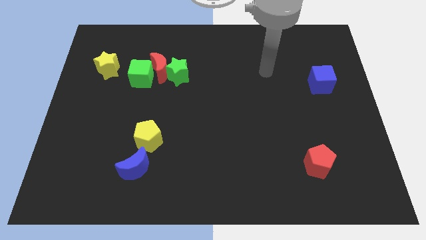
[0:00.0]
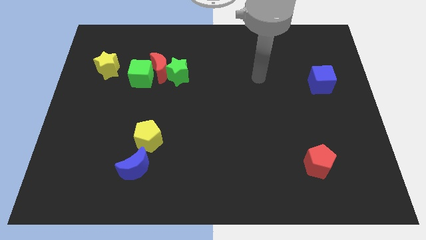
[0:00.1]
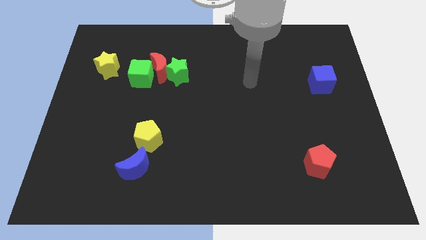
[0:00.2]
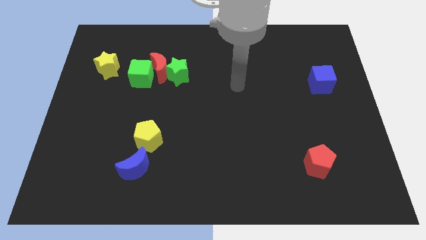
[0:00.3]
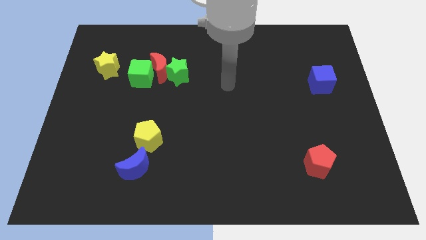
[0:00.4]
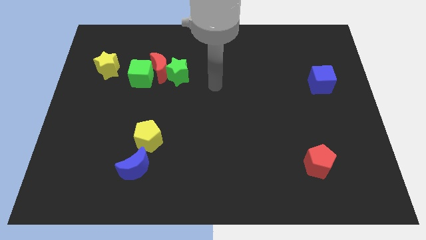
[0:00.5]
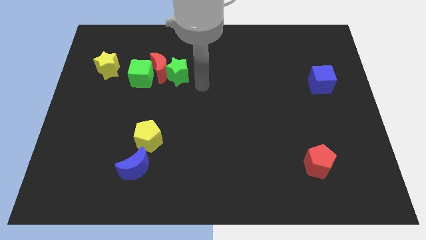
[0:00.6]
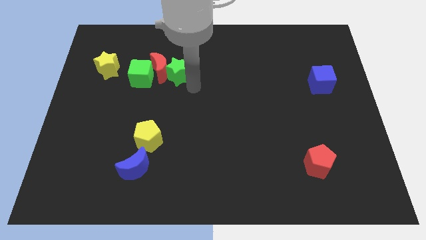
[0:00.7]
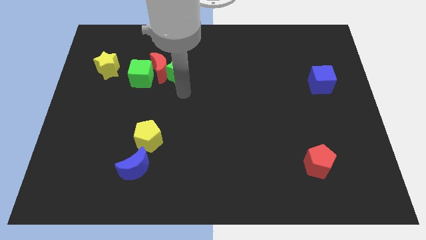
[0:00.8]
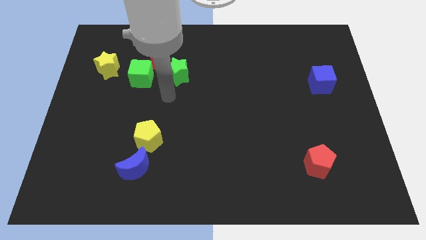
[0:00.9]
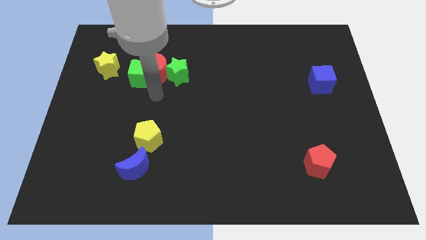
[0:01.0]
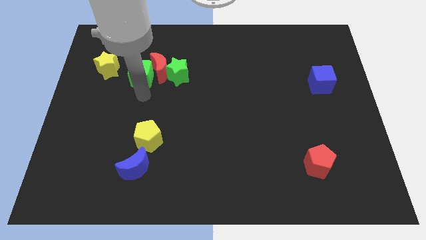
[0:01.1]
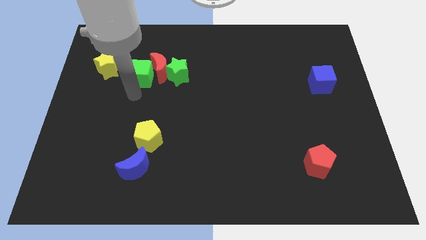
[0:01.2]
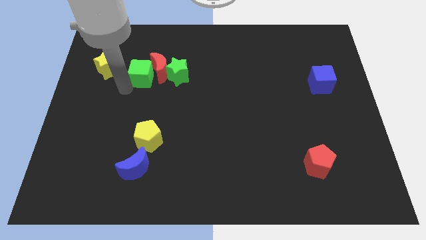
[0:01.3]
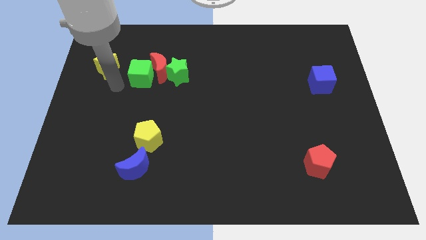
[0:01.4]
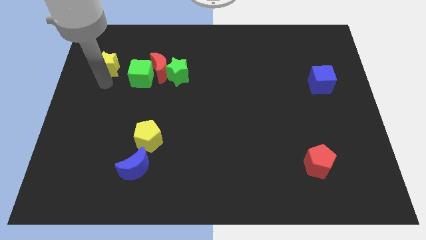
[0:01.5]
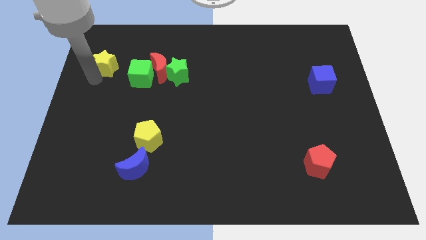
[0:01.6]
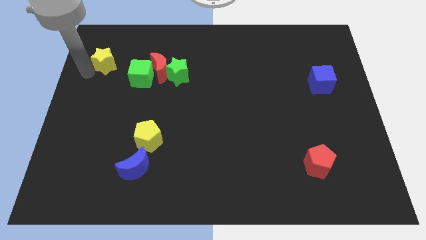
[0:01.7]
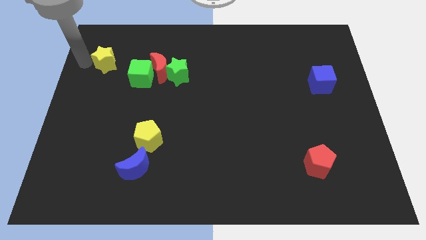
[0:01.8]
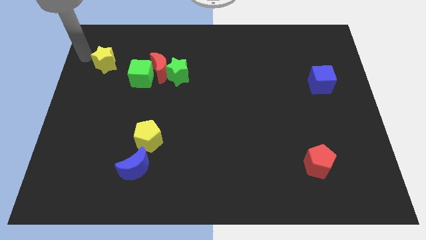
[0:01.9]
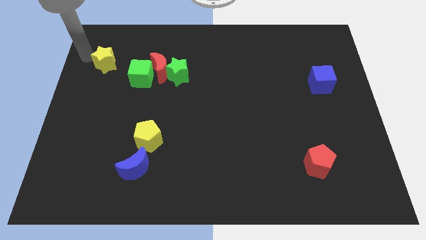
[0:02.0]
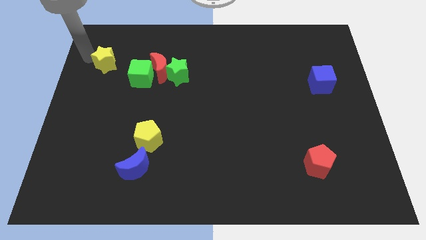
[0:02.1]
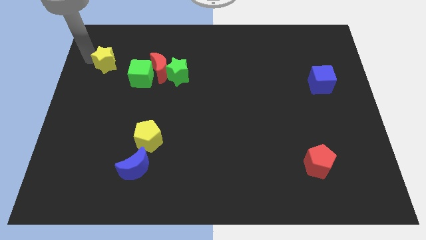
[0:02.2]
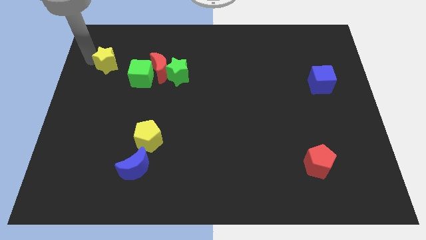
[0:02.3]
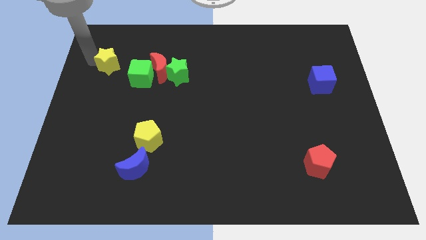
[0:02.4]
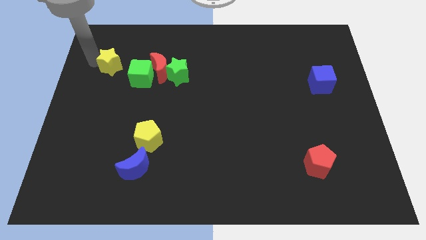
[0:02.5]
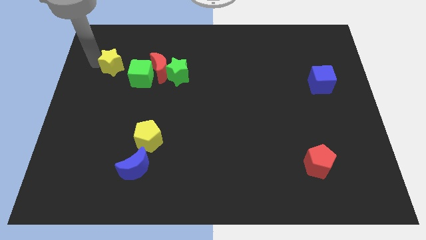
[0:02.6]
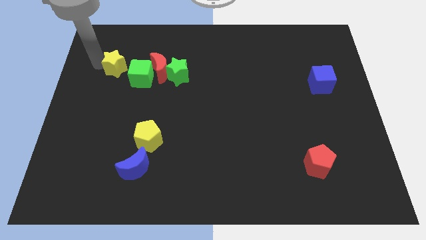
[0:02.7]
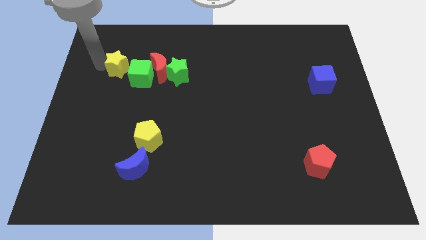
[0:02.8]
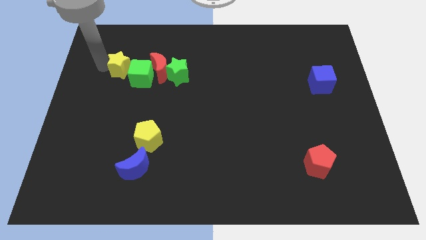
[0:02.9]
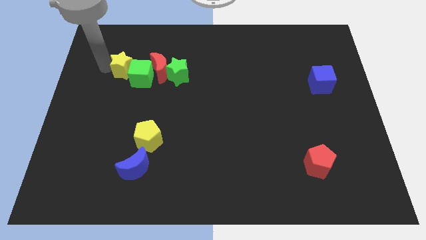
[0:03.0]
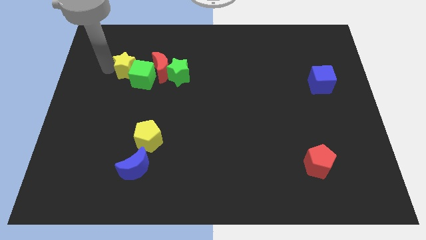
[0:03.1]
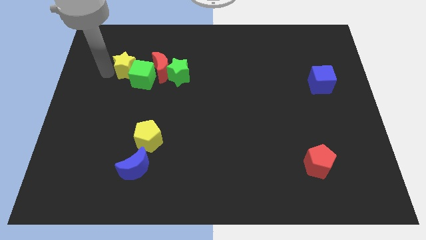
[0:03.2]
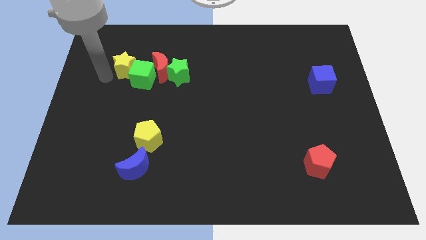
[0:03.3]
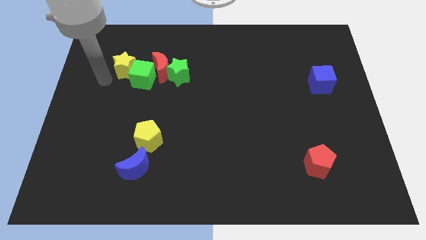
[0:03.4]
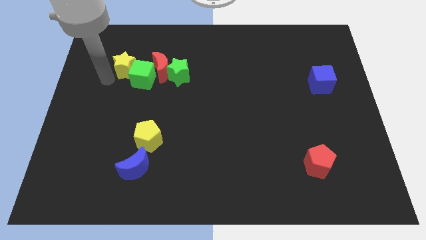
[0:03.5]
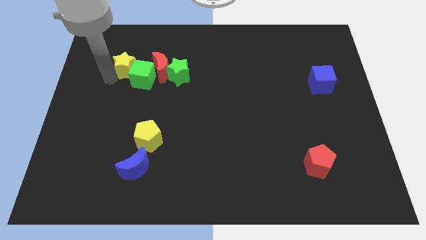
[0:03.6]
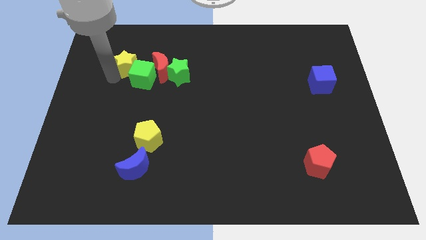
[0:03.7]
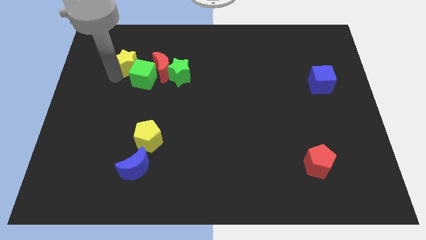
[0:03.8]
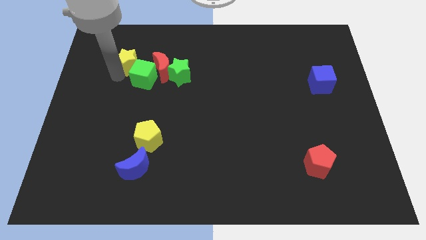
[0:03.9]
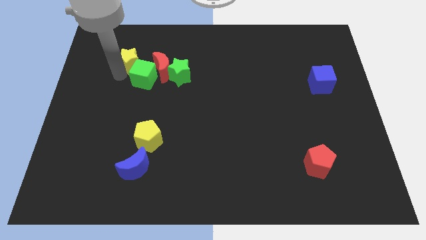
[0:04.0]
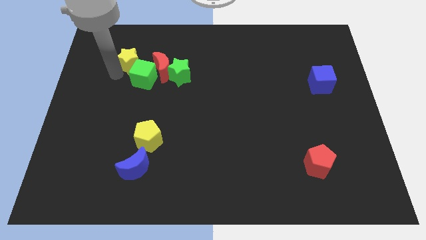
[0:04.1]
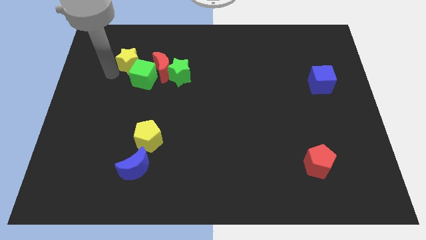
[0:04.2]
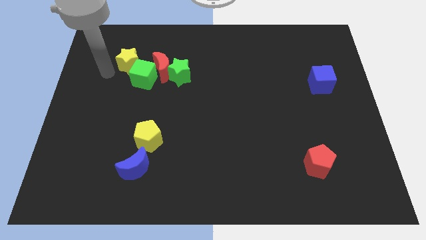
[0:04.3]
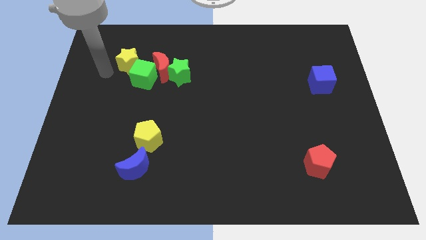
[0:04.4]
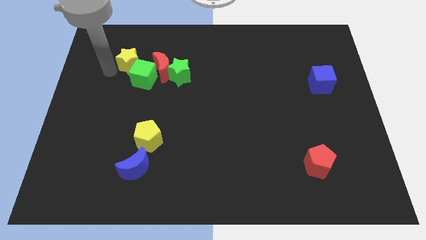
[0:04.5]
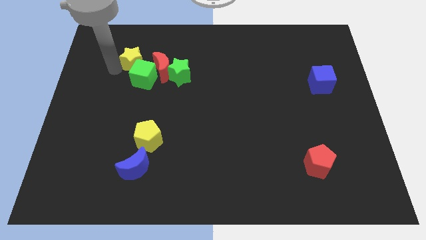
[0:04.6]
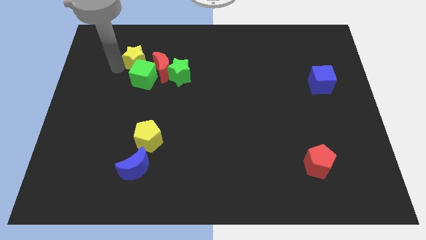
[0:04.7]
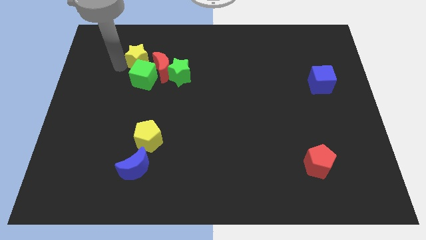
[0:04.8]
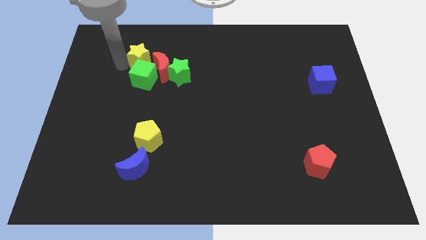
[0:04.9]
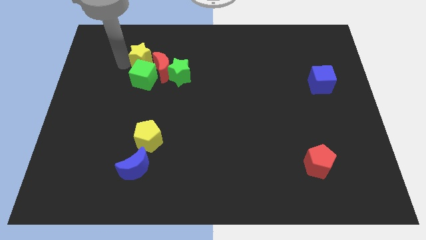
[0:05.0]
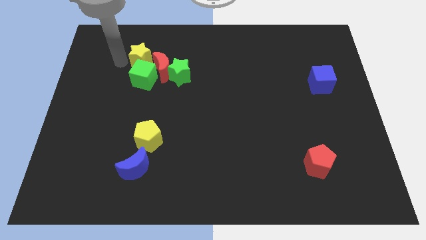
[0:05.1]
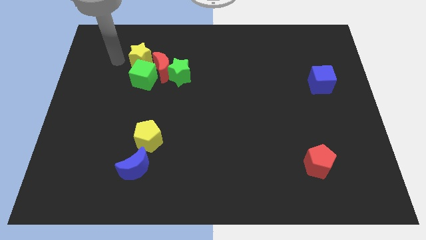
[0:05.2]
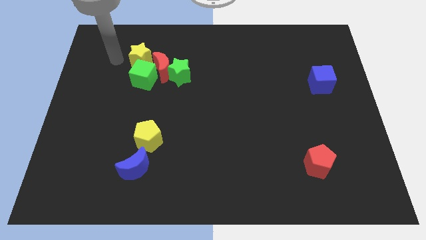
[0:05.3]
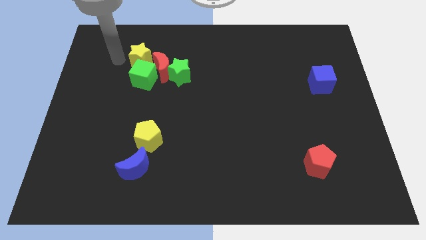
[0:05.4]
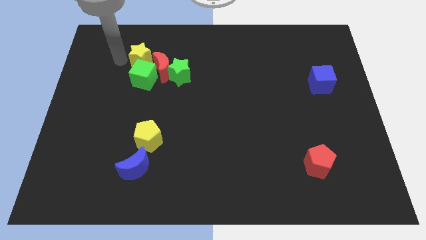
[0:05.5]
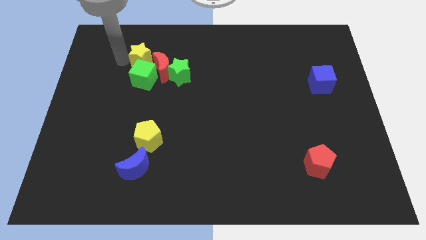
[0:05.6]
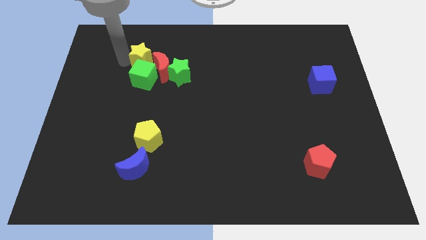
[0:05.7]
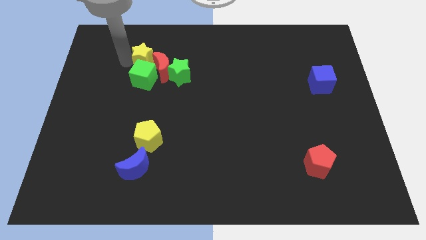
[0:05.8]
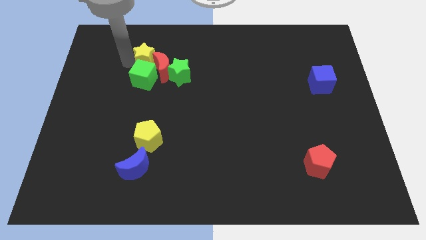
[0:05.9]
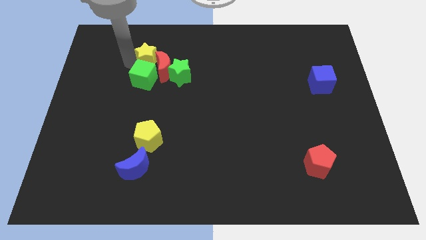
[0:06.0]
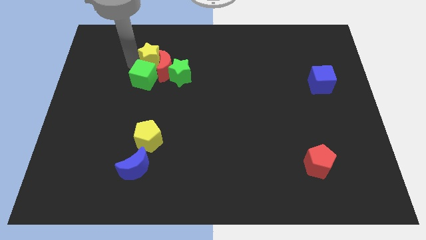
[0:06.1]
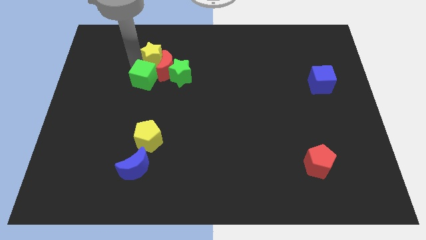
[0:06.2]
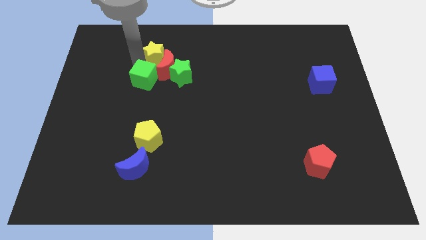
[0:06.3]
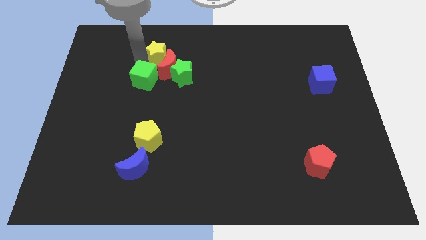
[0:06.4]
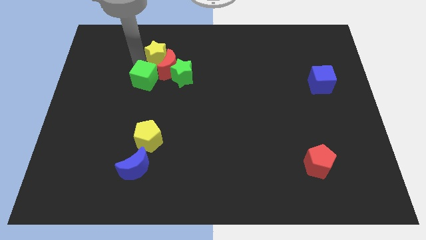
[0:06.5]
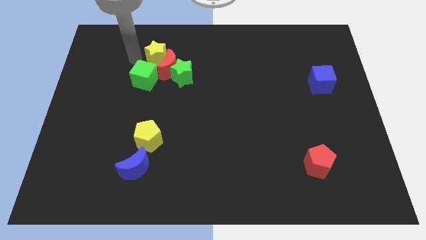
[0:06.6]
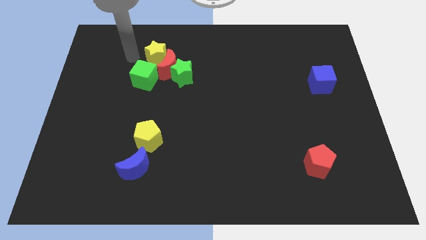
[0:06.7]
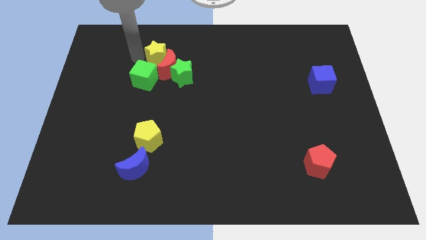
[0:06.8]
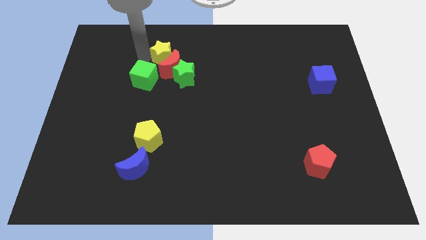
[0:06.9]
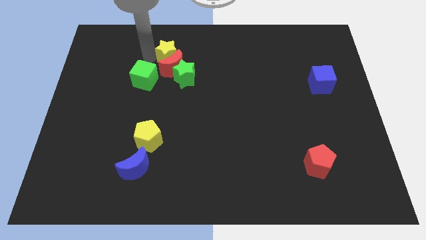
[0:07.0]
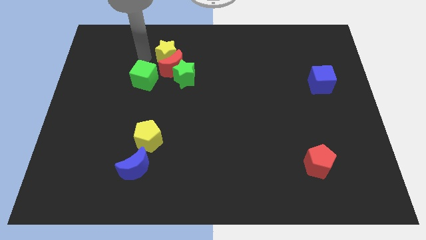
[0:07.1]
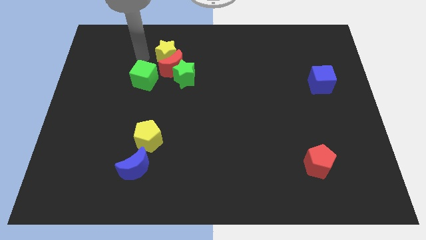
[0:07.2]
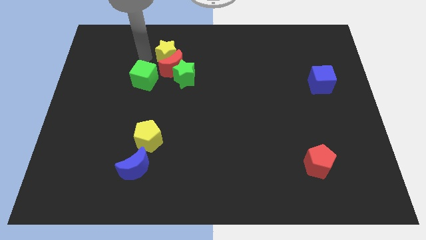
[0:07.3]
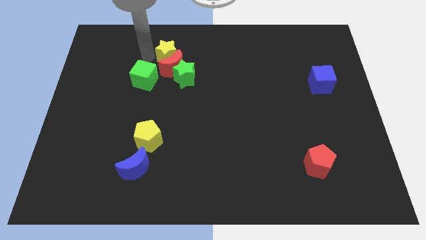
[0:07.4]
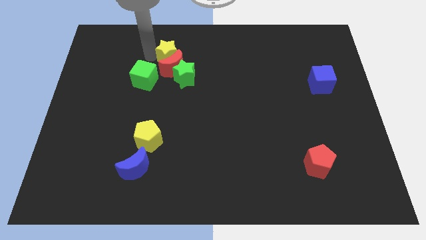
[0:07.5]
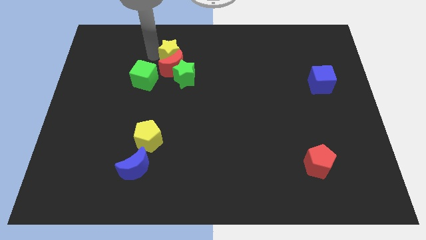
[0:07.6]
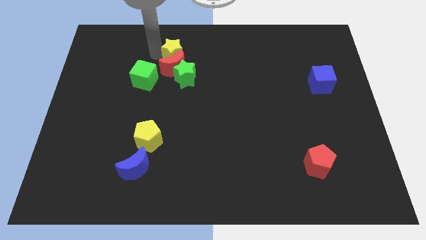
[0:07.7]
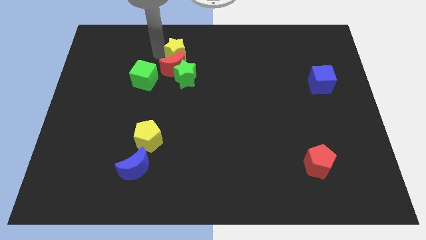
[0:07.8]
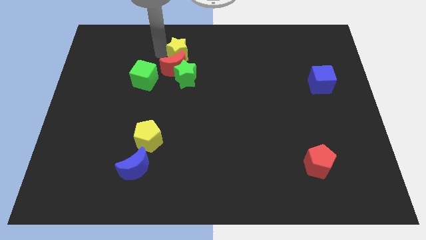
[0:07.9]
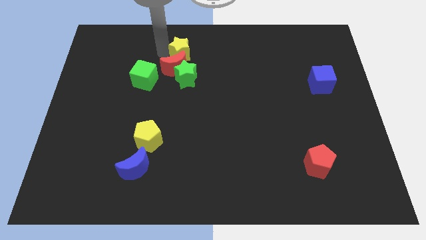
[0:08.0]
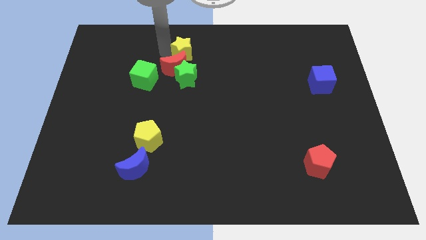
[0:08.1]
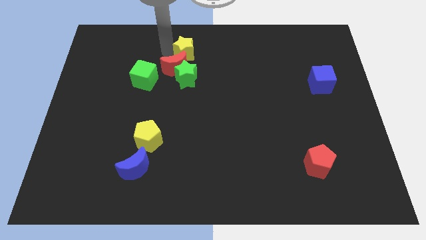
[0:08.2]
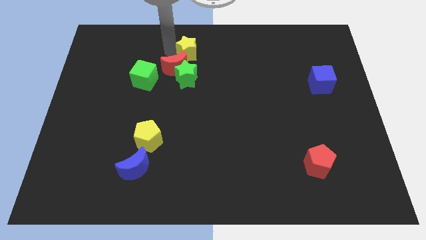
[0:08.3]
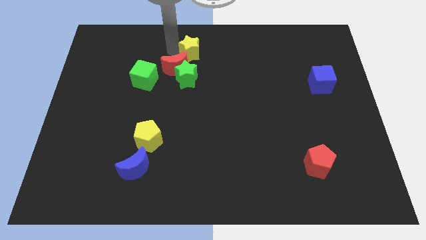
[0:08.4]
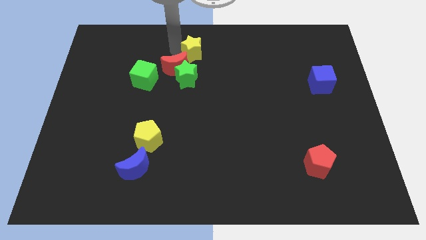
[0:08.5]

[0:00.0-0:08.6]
move the yellow star right
